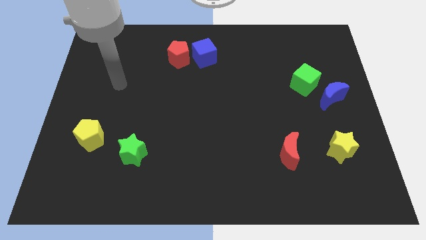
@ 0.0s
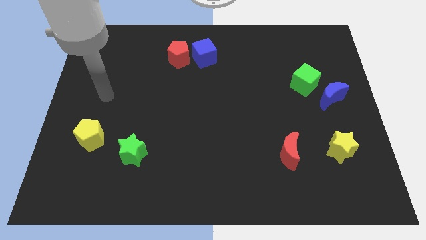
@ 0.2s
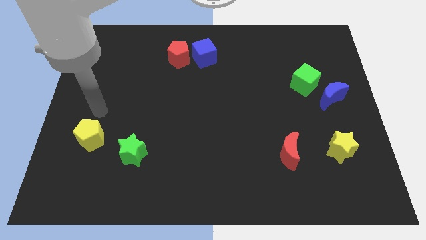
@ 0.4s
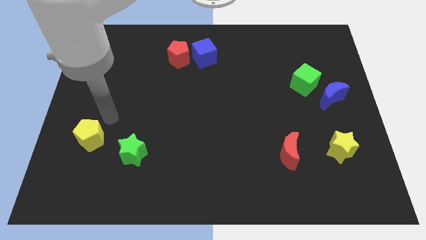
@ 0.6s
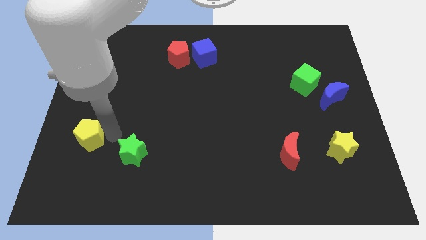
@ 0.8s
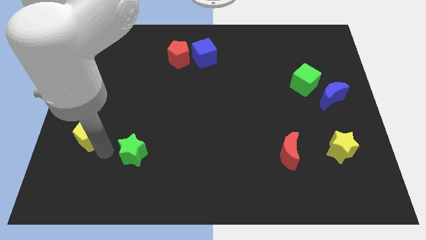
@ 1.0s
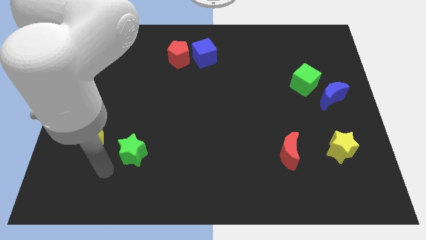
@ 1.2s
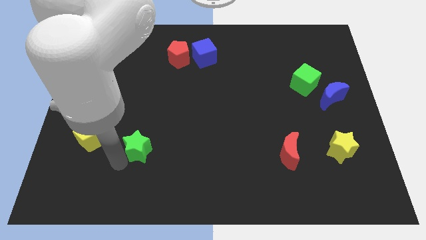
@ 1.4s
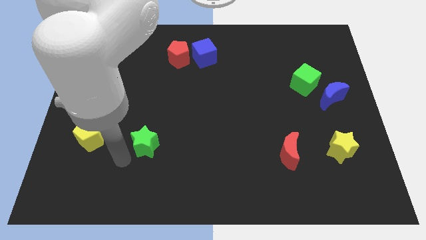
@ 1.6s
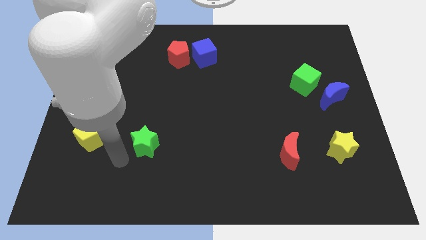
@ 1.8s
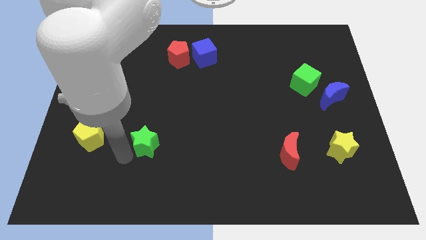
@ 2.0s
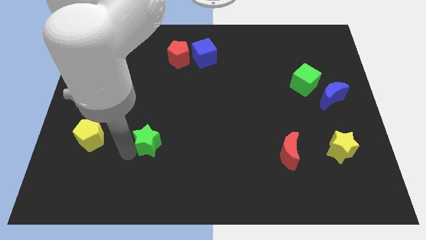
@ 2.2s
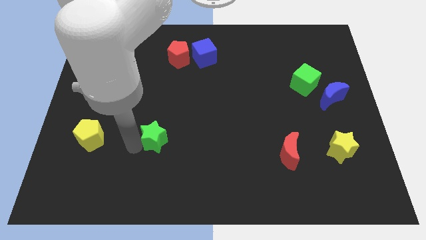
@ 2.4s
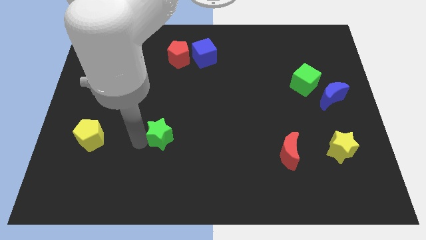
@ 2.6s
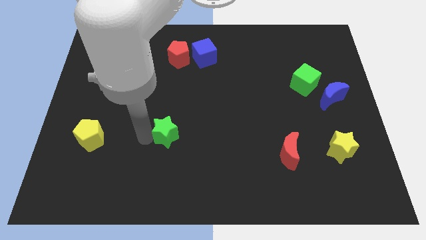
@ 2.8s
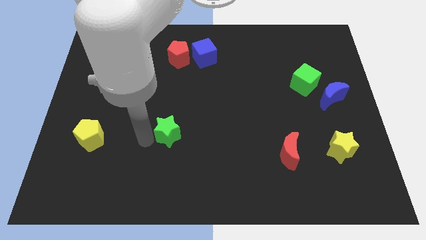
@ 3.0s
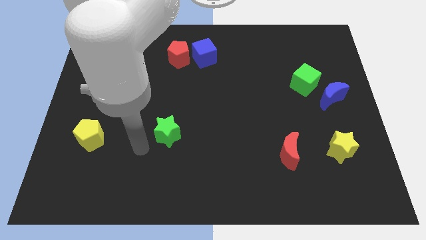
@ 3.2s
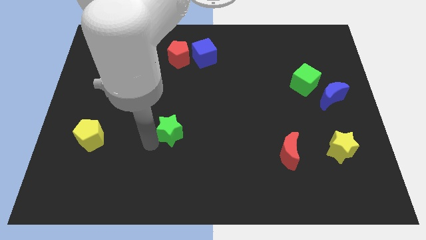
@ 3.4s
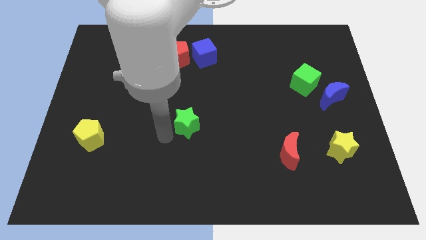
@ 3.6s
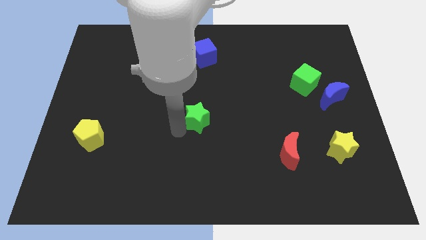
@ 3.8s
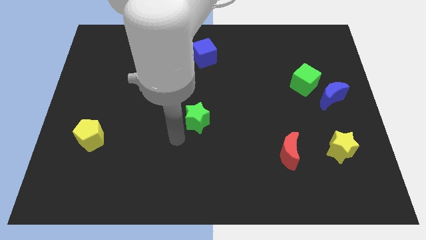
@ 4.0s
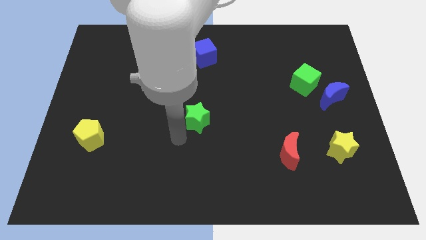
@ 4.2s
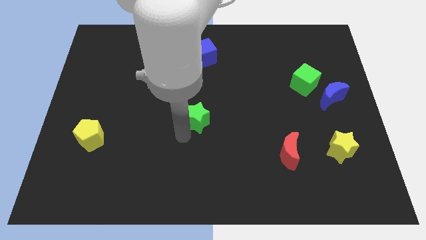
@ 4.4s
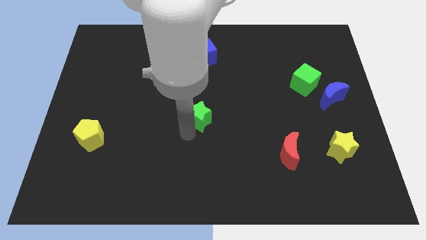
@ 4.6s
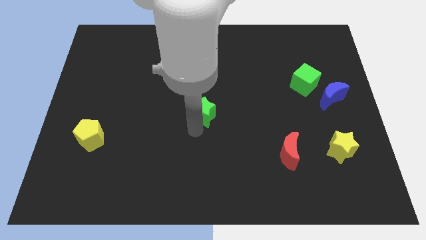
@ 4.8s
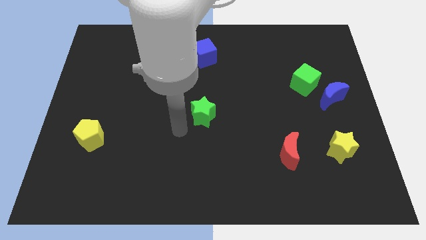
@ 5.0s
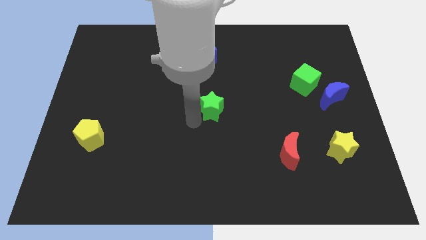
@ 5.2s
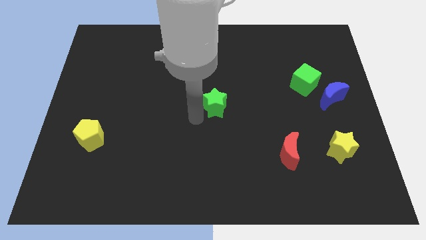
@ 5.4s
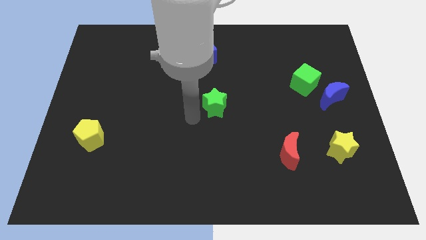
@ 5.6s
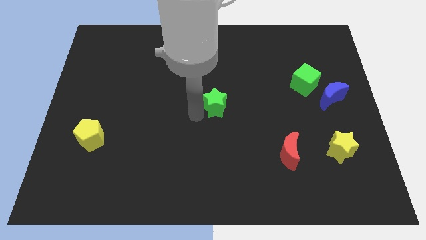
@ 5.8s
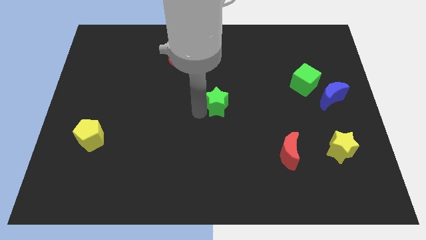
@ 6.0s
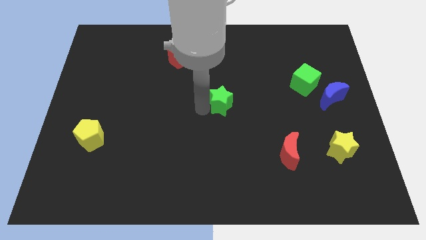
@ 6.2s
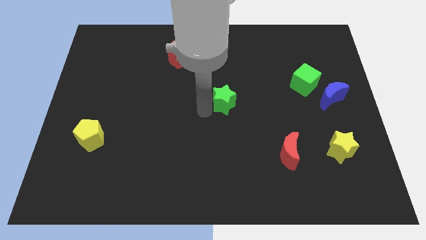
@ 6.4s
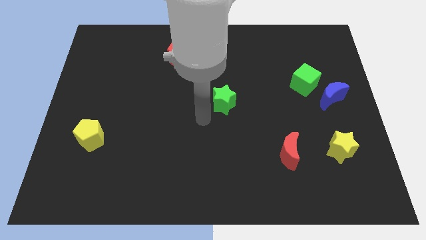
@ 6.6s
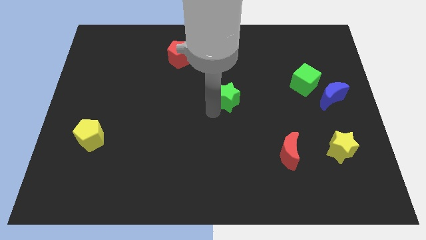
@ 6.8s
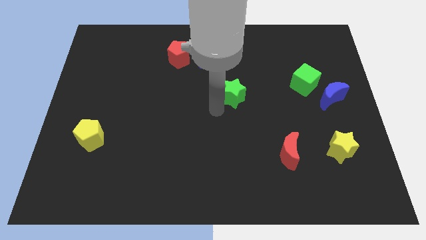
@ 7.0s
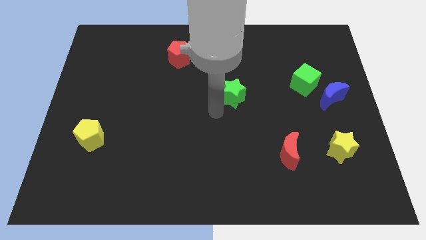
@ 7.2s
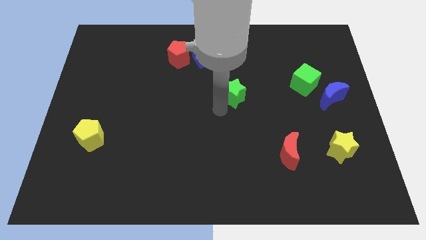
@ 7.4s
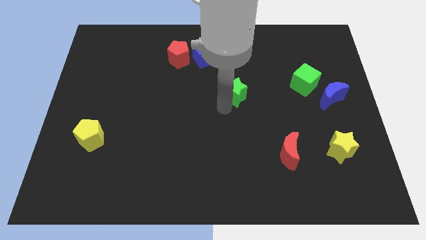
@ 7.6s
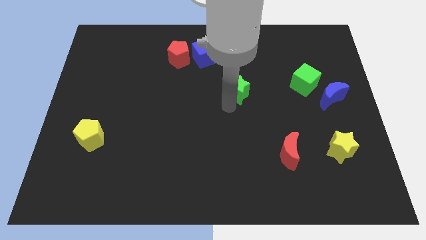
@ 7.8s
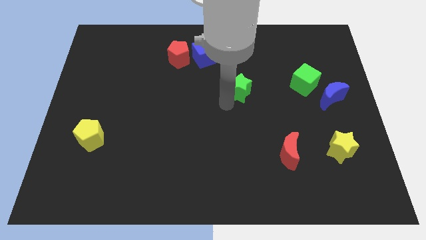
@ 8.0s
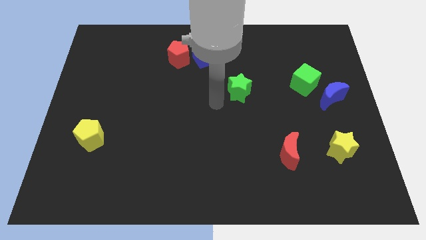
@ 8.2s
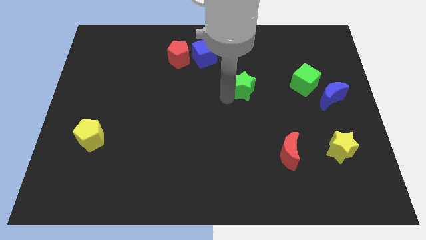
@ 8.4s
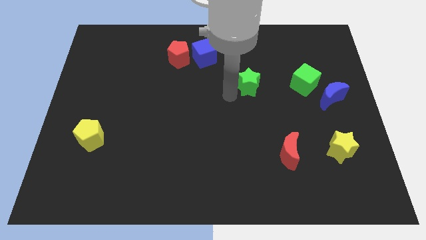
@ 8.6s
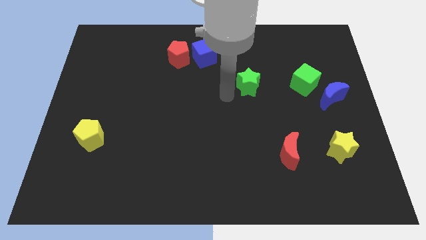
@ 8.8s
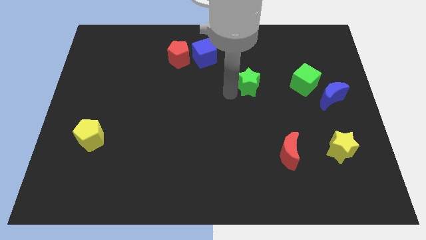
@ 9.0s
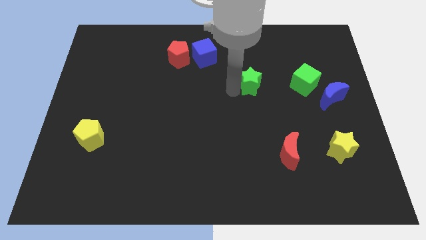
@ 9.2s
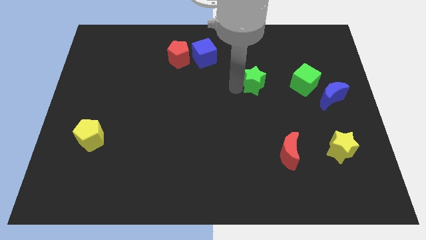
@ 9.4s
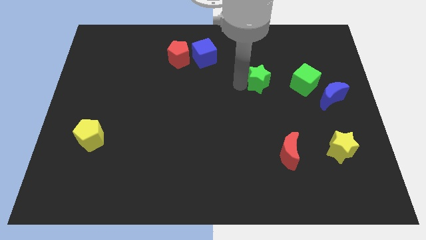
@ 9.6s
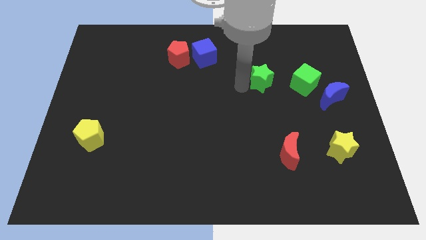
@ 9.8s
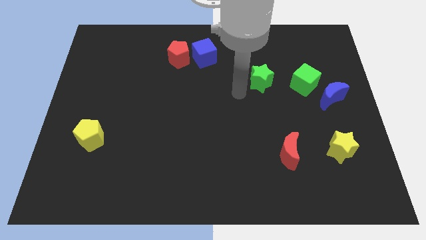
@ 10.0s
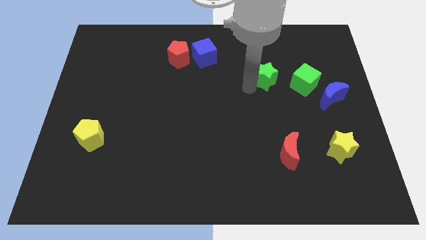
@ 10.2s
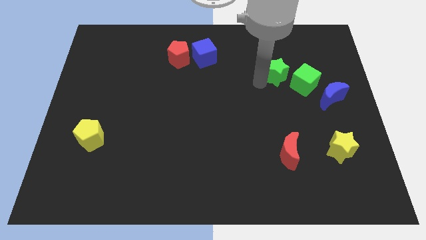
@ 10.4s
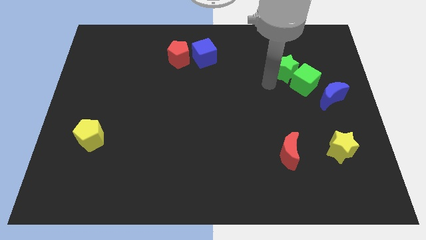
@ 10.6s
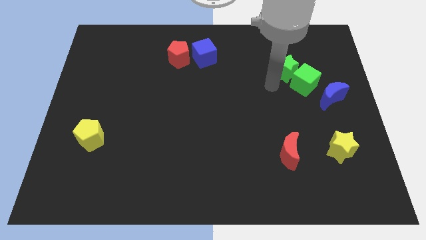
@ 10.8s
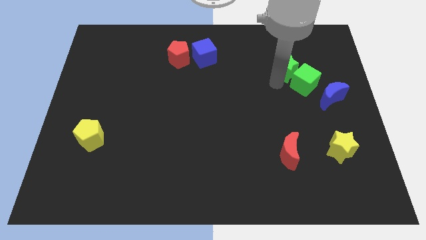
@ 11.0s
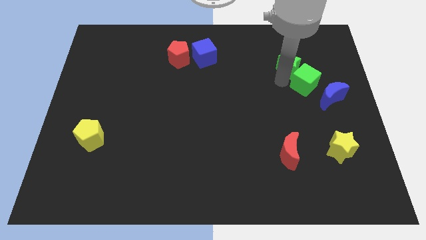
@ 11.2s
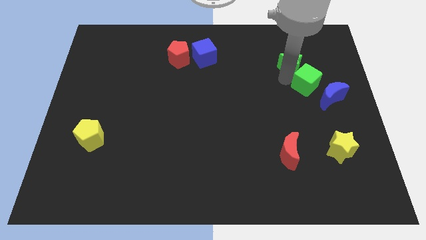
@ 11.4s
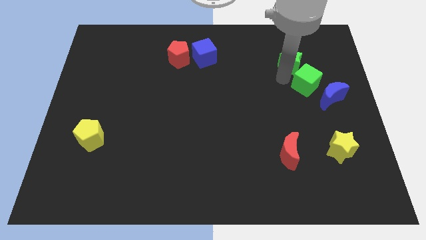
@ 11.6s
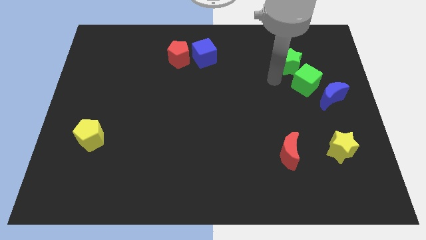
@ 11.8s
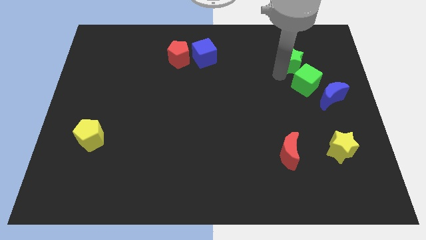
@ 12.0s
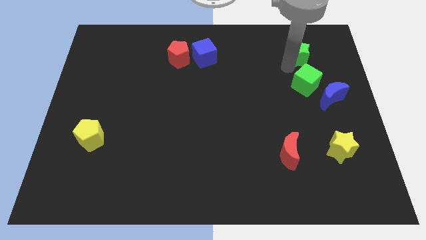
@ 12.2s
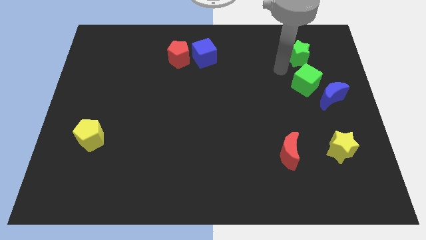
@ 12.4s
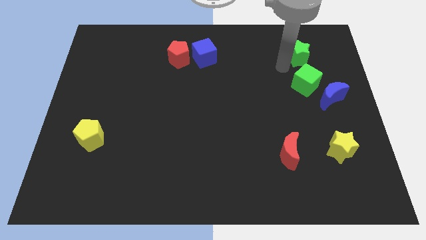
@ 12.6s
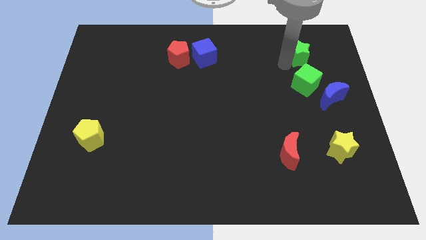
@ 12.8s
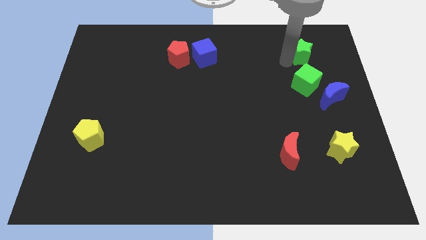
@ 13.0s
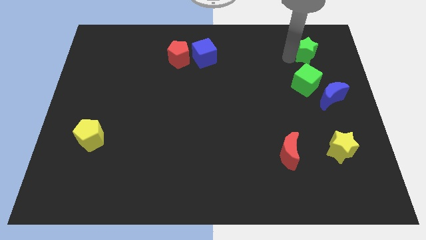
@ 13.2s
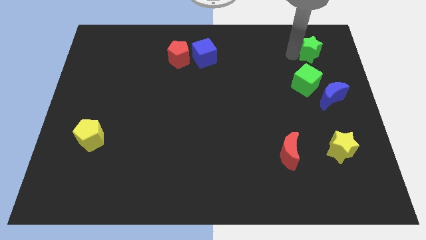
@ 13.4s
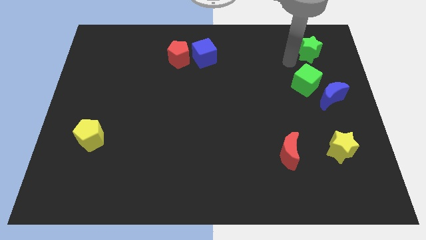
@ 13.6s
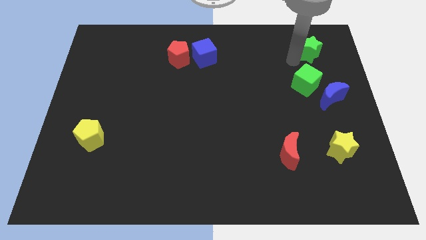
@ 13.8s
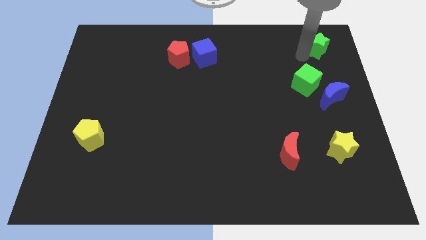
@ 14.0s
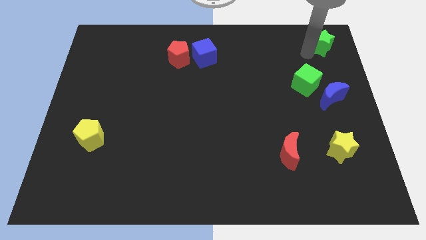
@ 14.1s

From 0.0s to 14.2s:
slide the green star to the upper right corner
